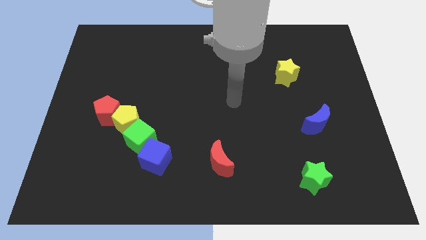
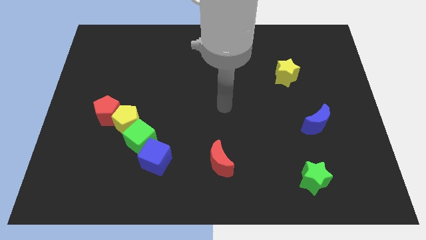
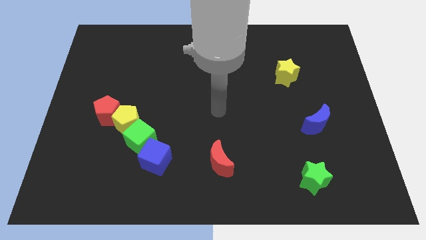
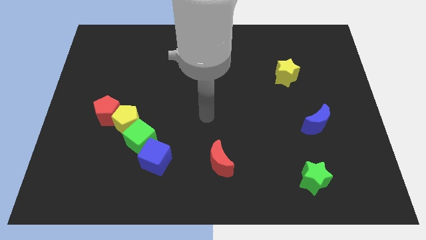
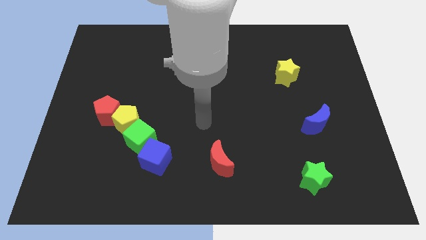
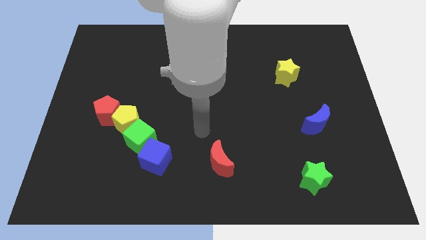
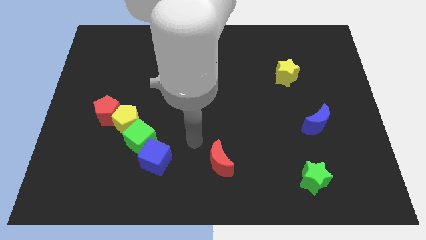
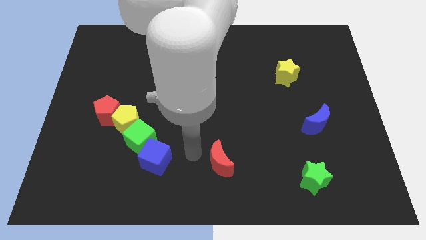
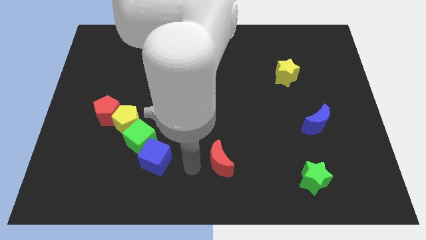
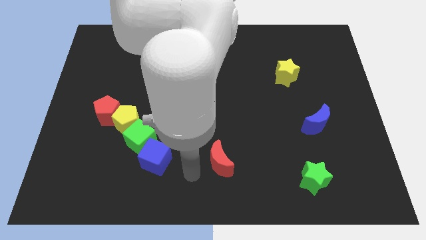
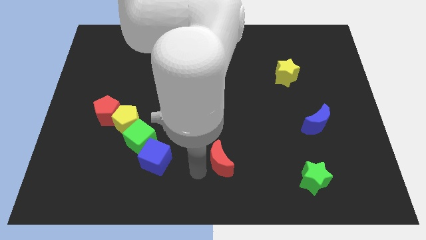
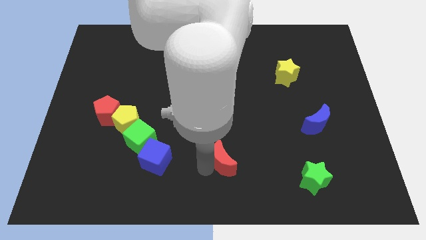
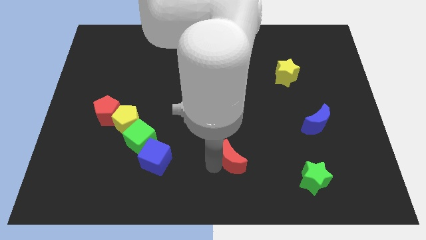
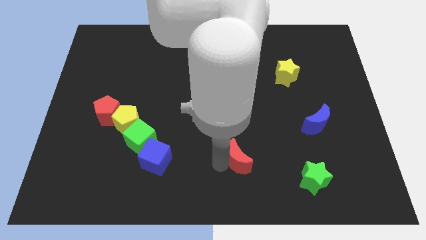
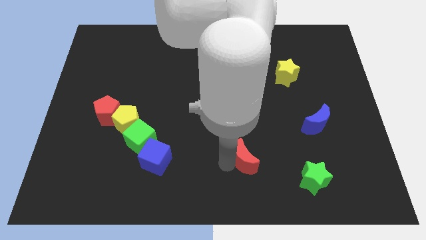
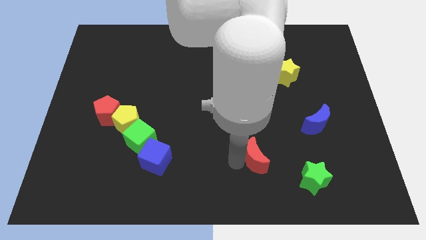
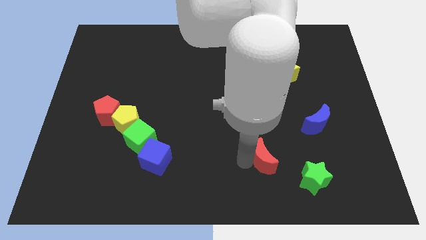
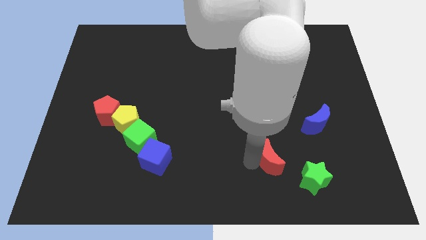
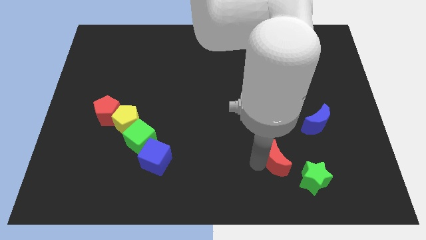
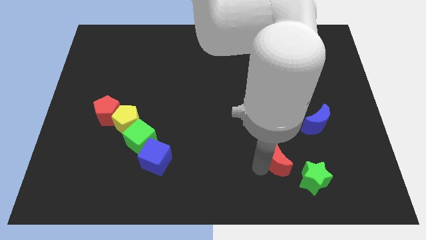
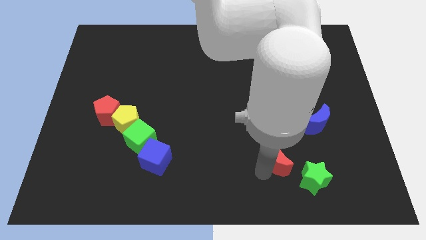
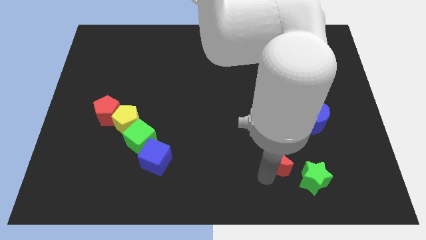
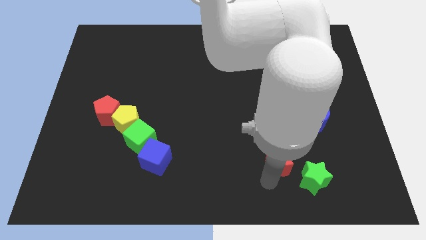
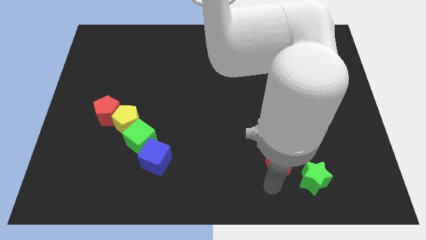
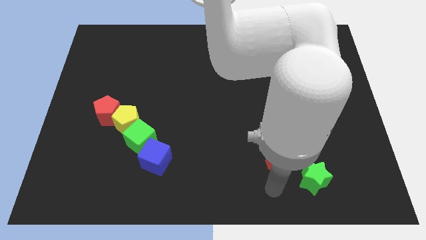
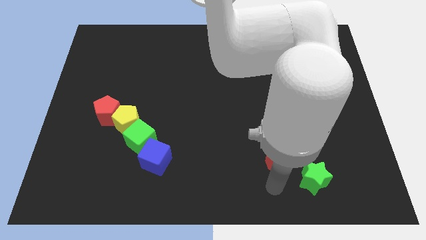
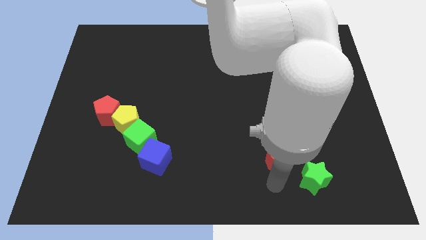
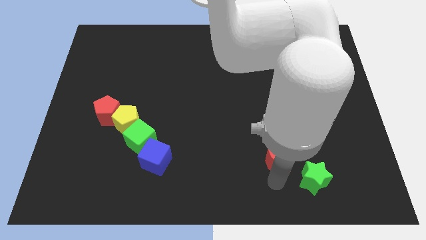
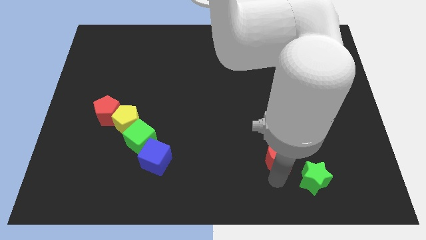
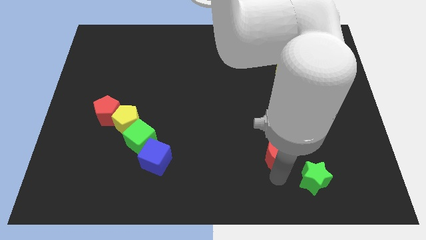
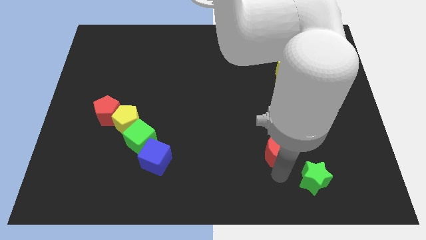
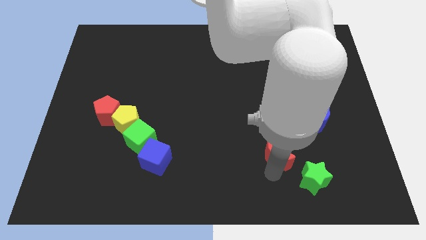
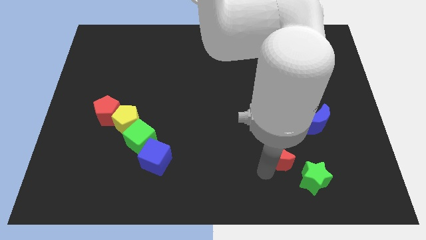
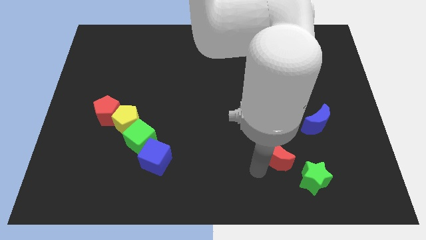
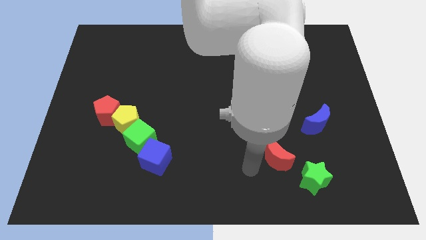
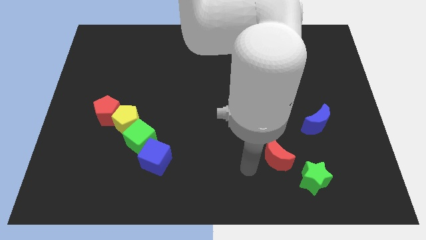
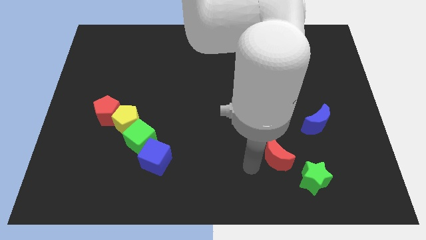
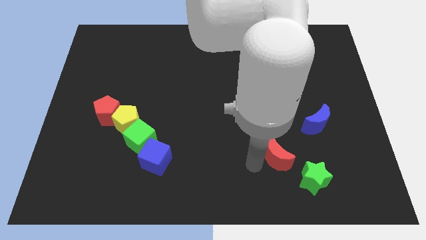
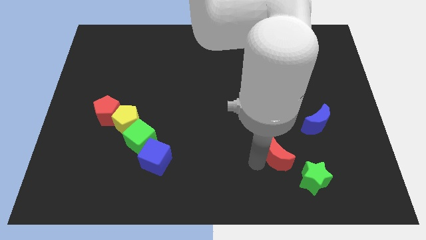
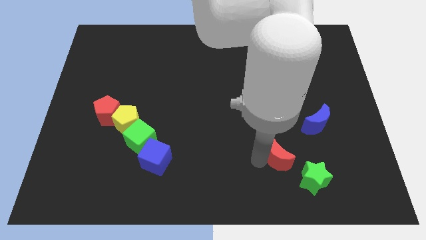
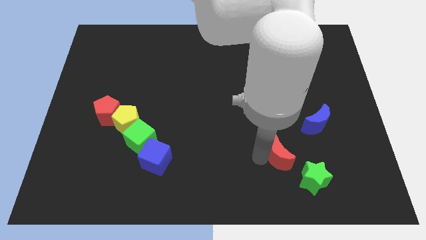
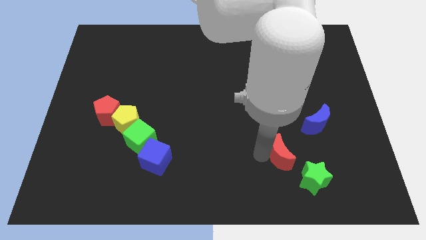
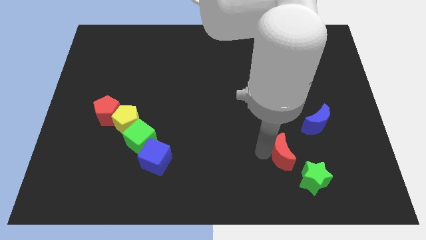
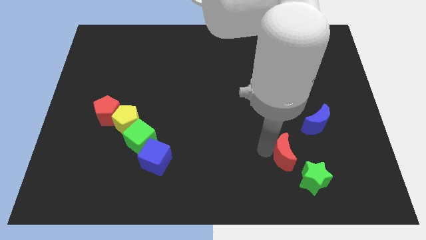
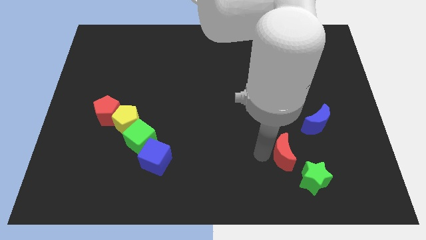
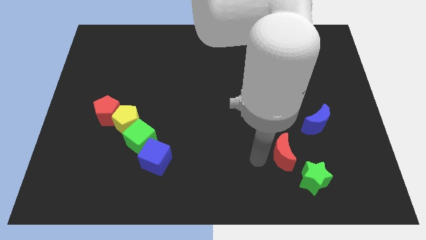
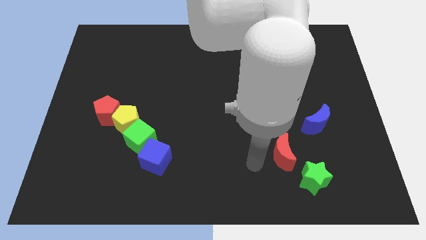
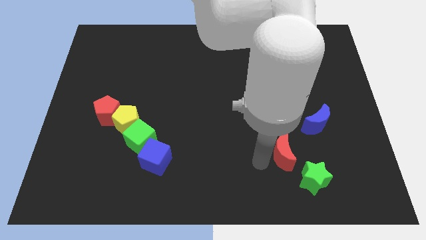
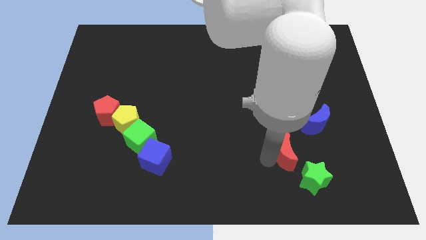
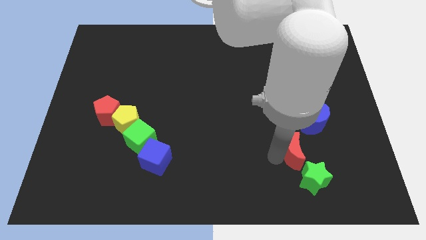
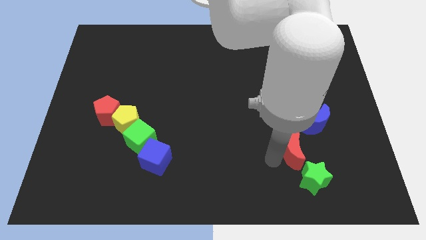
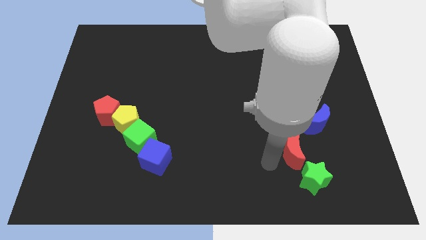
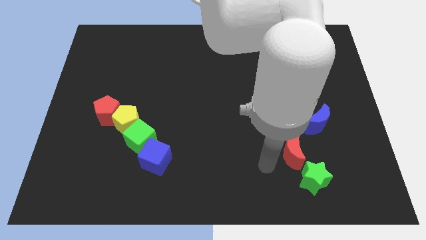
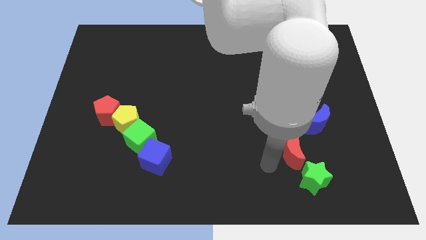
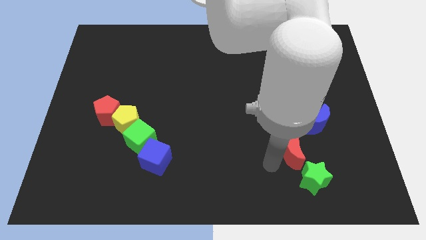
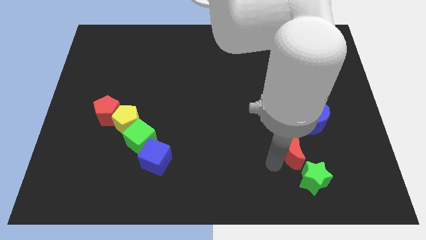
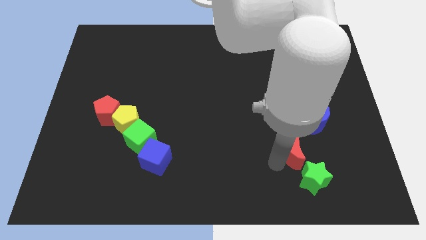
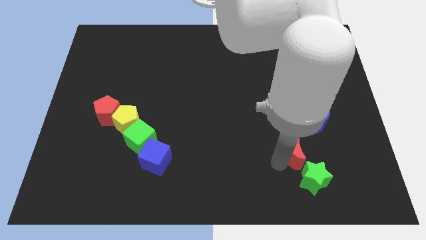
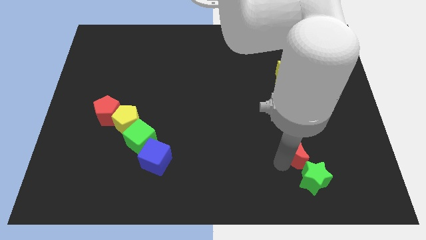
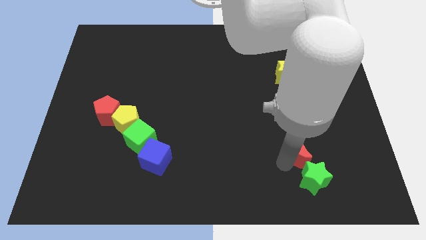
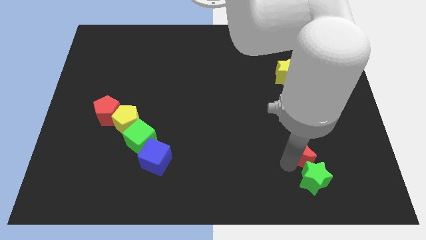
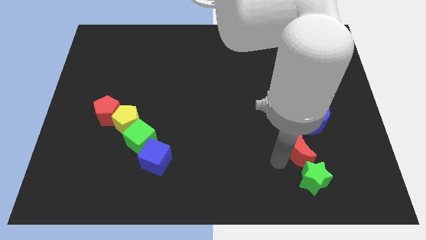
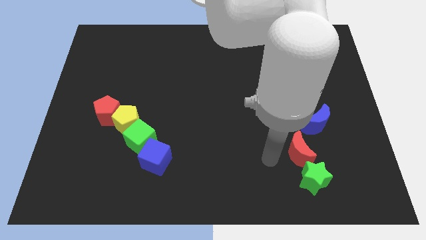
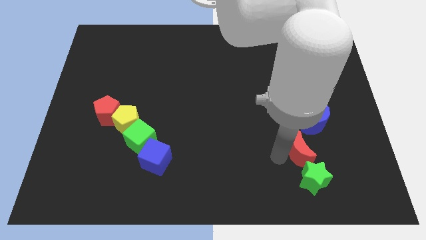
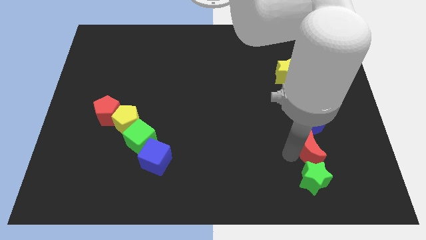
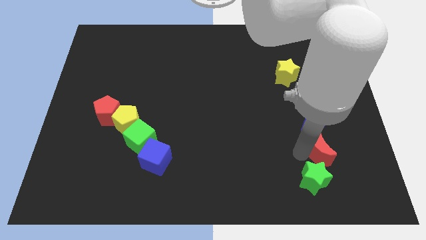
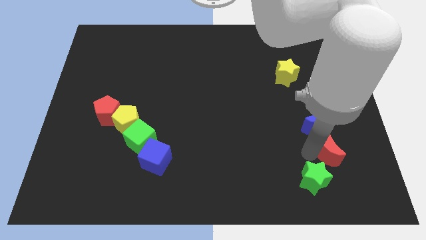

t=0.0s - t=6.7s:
push the red moon to the bottom right side of the blue moon

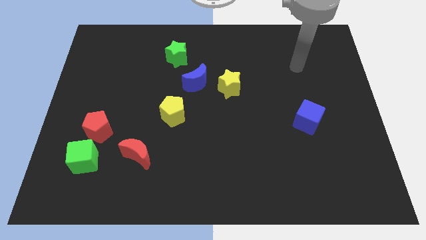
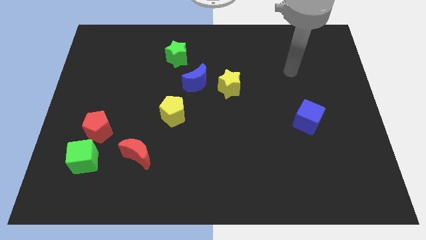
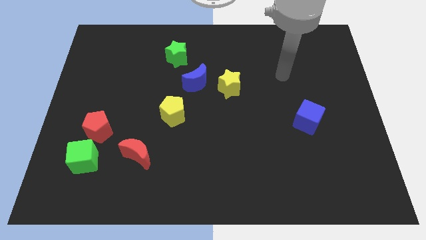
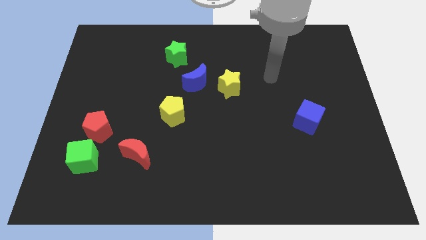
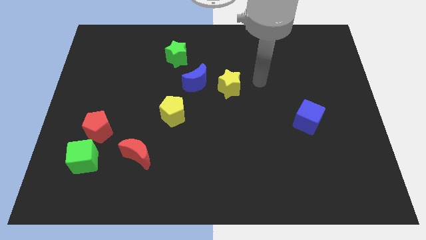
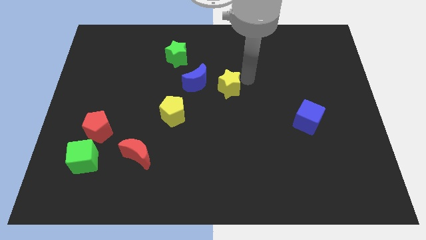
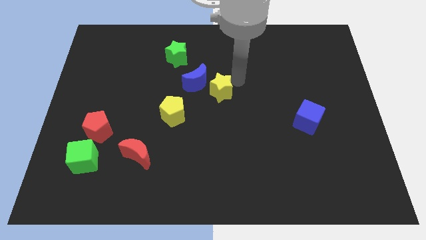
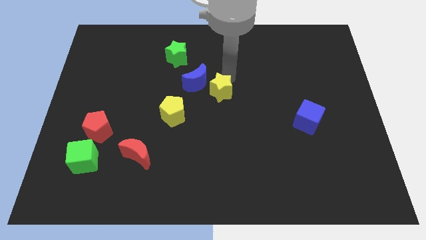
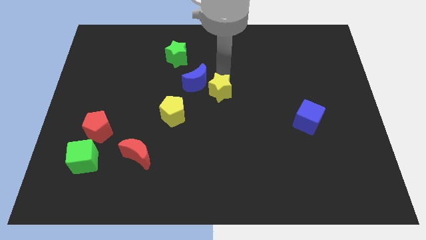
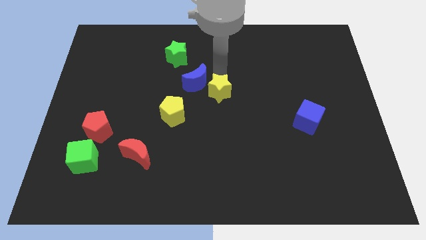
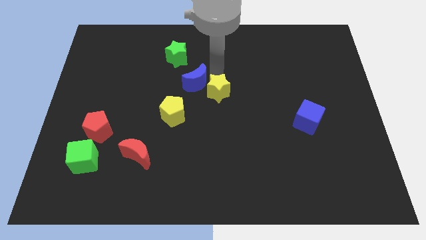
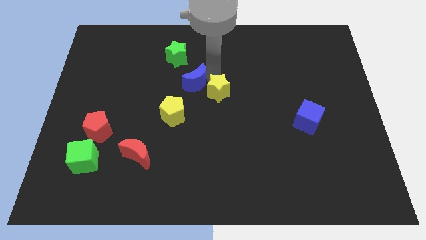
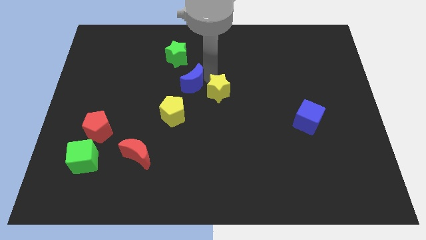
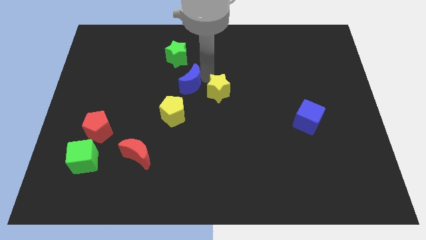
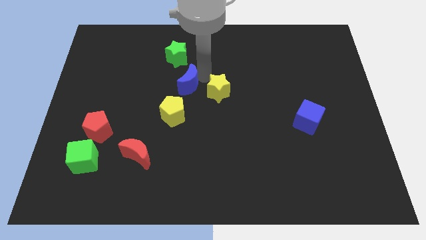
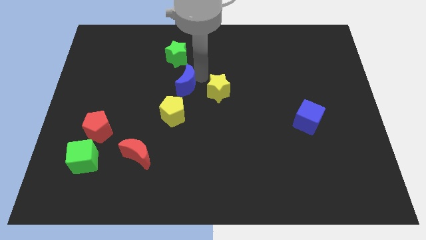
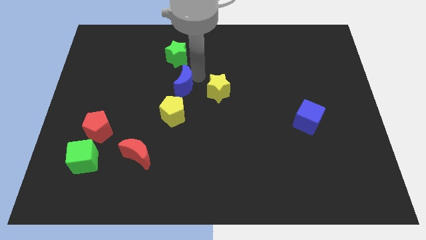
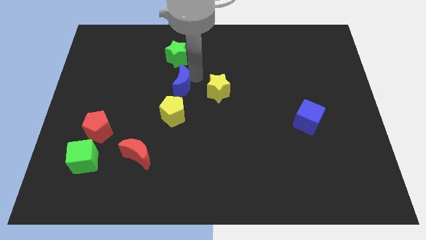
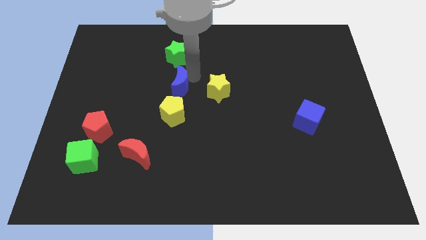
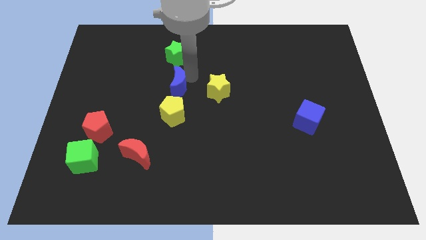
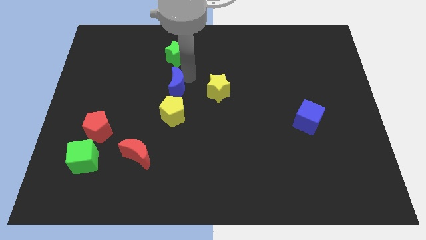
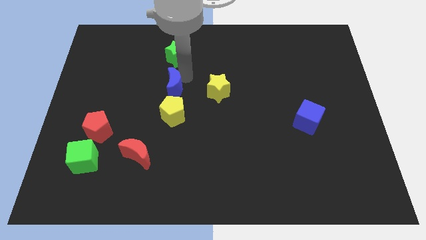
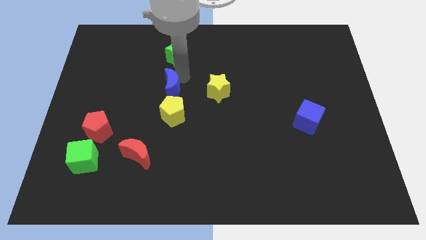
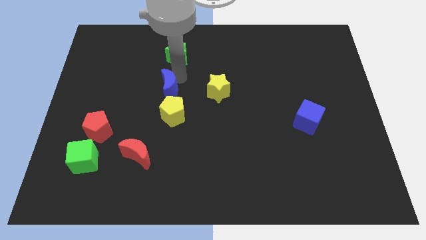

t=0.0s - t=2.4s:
move the blue moon to the top left side of the yellow pentagon
